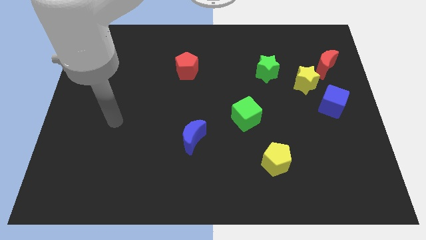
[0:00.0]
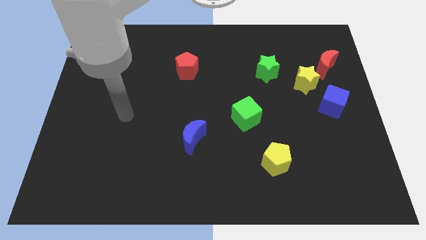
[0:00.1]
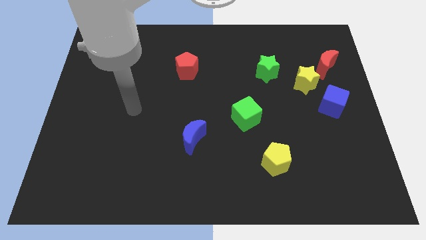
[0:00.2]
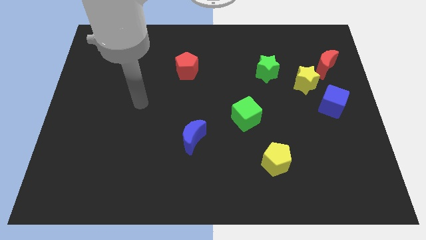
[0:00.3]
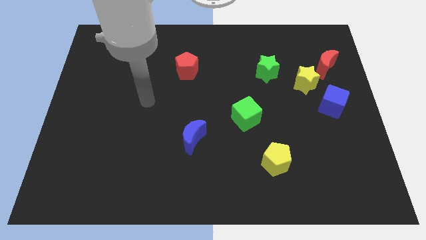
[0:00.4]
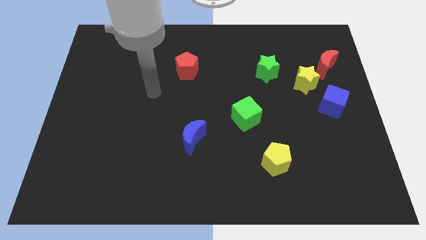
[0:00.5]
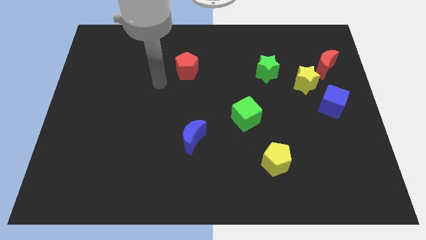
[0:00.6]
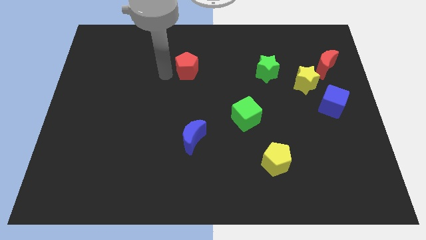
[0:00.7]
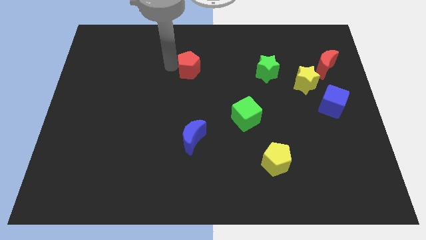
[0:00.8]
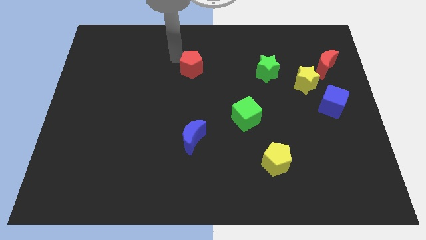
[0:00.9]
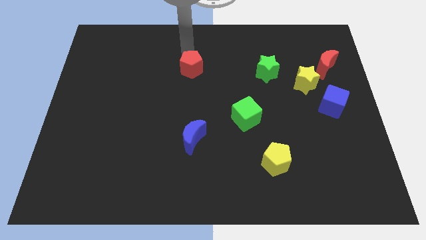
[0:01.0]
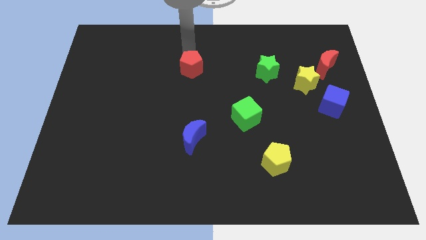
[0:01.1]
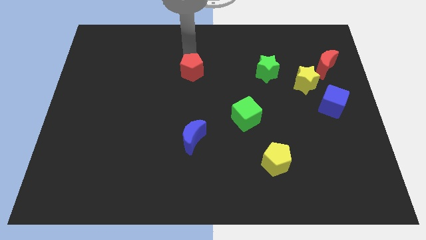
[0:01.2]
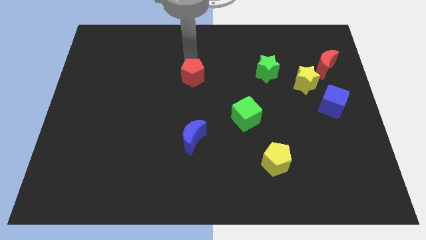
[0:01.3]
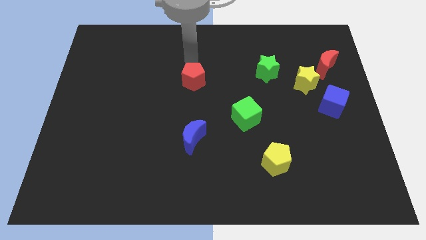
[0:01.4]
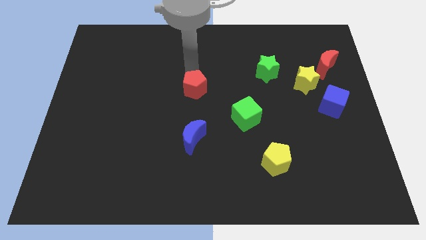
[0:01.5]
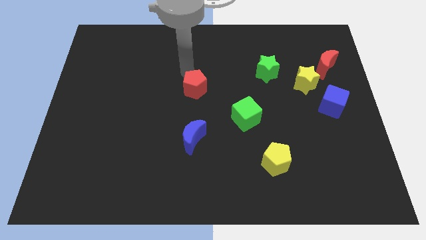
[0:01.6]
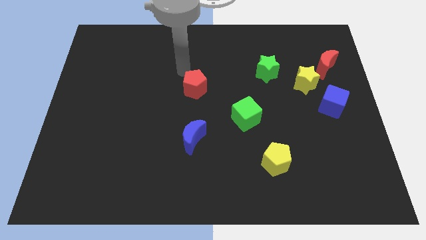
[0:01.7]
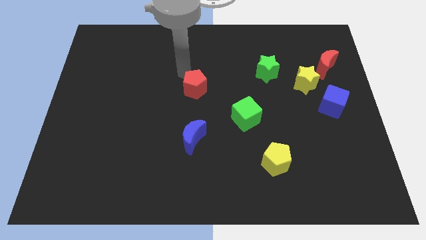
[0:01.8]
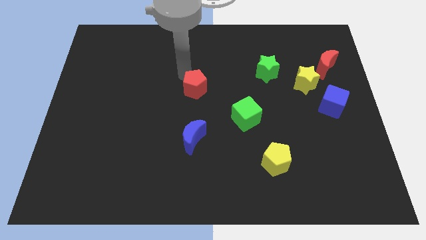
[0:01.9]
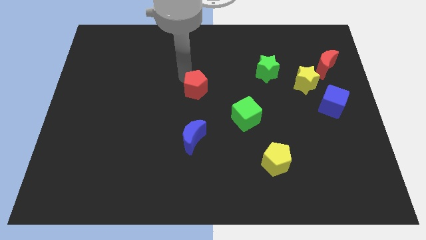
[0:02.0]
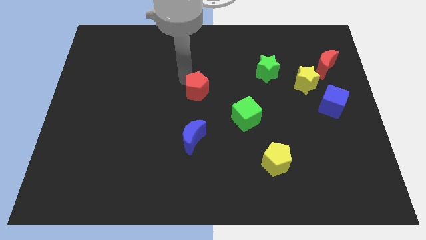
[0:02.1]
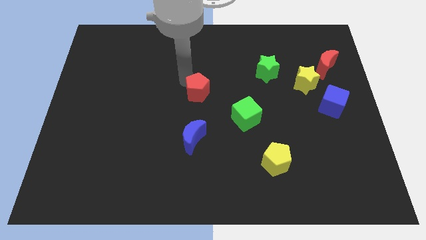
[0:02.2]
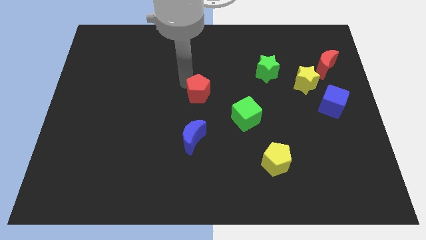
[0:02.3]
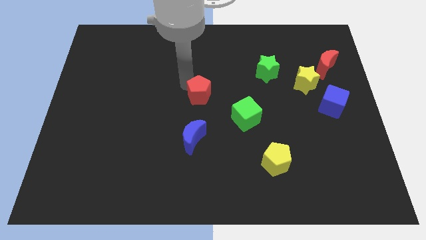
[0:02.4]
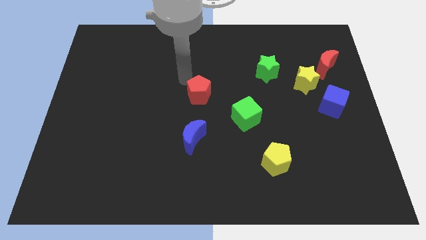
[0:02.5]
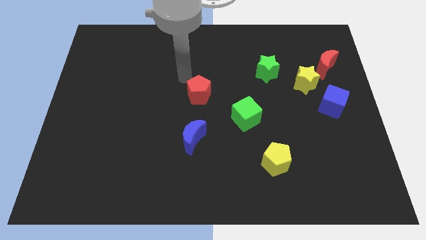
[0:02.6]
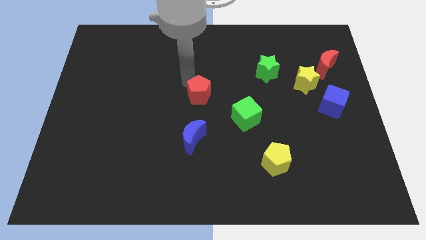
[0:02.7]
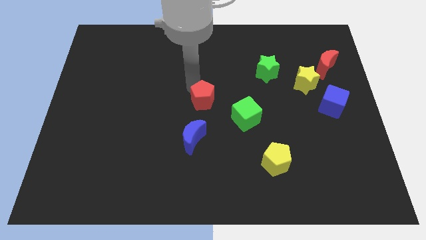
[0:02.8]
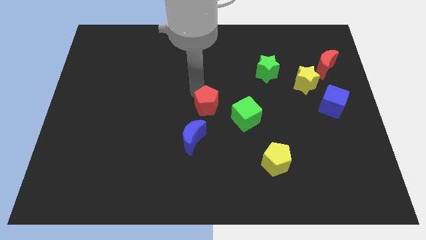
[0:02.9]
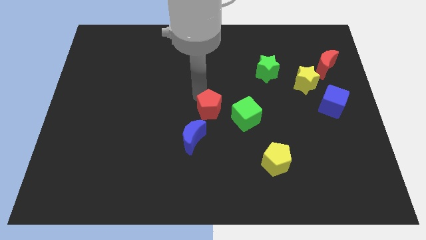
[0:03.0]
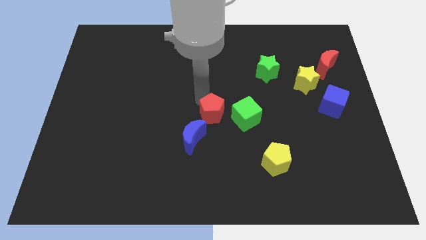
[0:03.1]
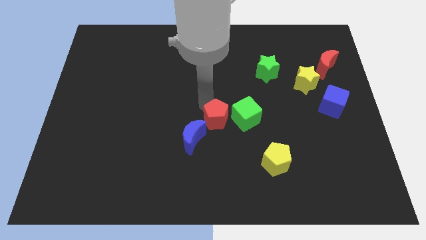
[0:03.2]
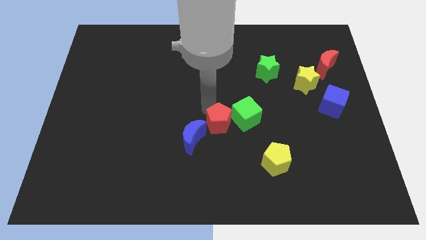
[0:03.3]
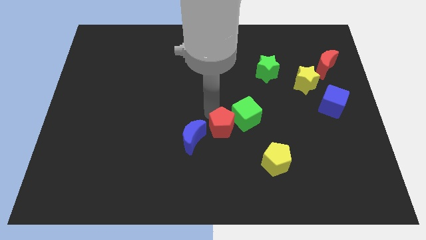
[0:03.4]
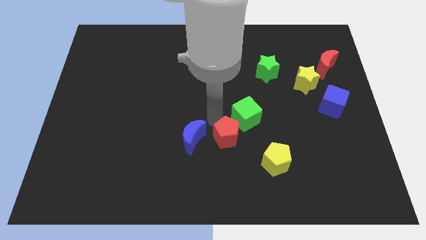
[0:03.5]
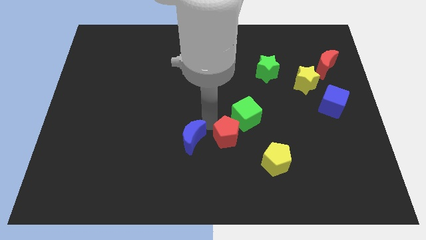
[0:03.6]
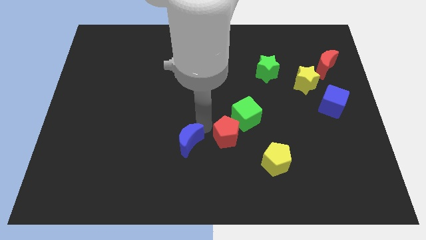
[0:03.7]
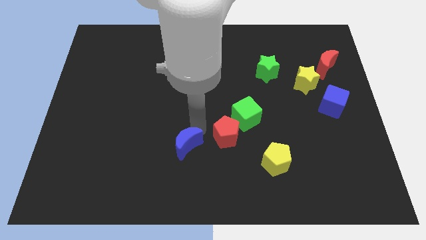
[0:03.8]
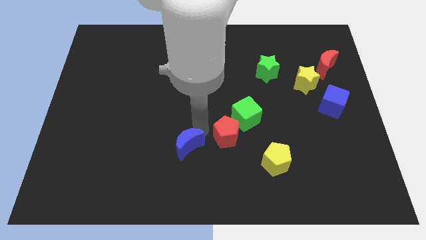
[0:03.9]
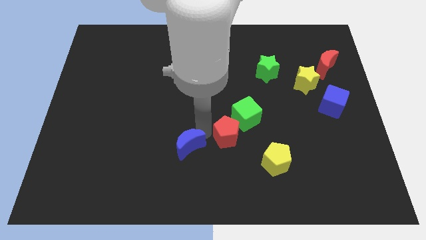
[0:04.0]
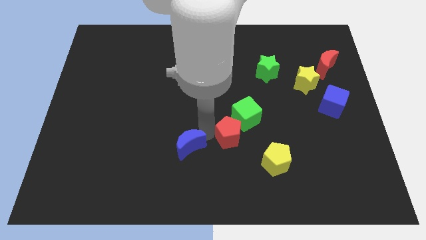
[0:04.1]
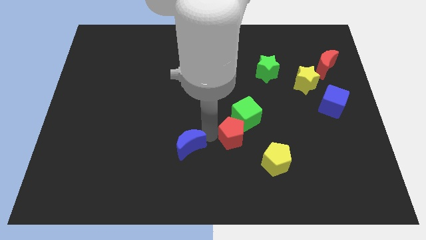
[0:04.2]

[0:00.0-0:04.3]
push the red pentagon downwards and then to the right

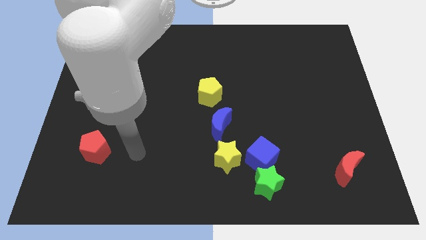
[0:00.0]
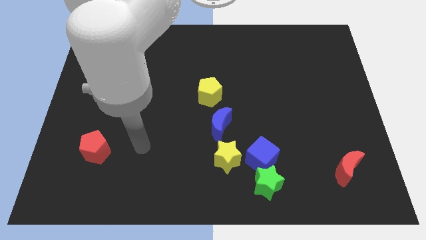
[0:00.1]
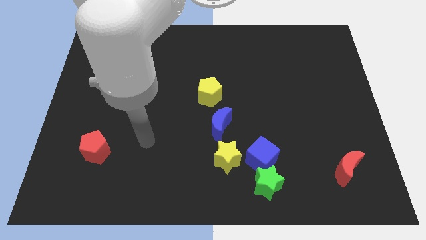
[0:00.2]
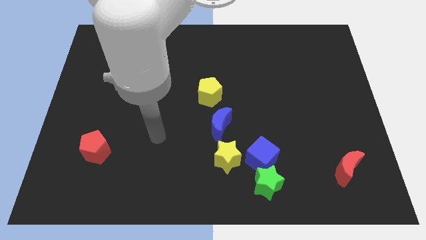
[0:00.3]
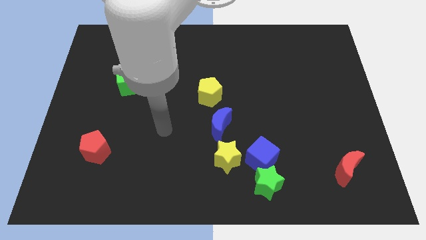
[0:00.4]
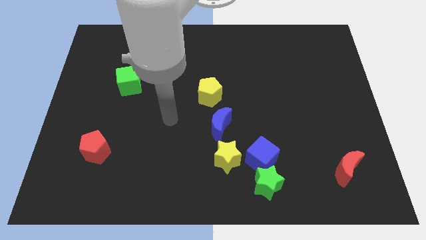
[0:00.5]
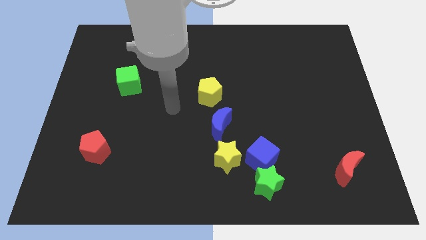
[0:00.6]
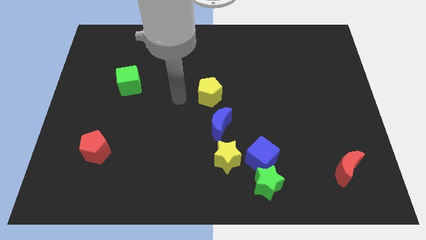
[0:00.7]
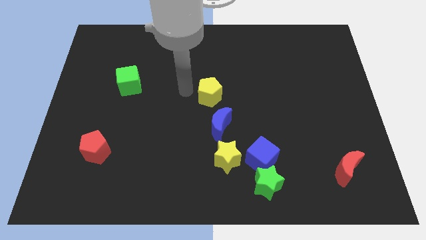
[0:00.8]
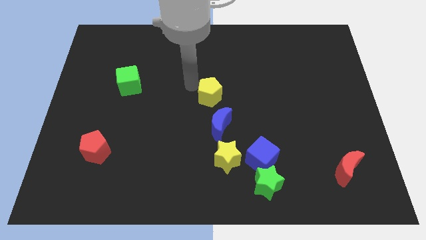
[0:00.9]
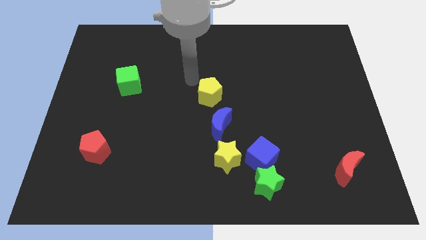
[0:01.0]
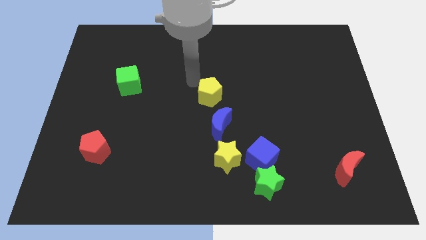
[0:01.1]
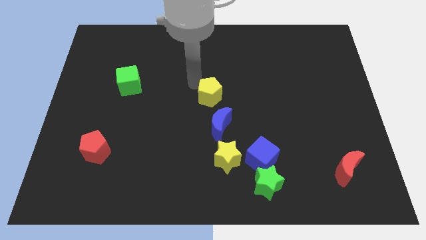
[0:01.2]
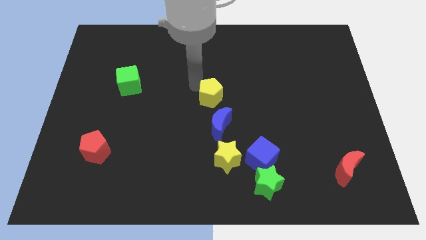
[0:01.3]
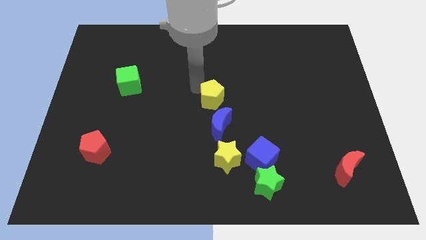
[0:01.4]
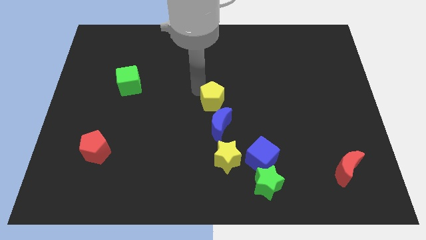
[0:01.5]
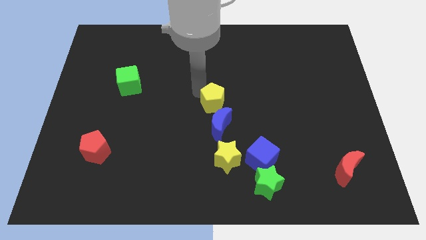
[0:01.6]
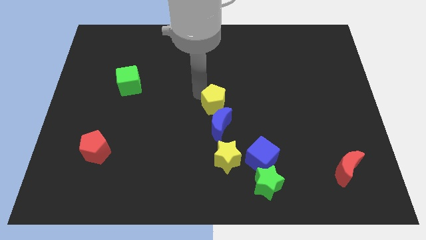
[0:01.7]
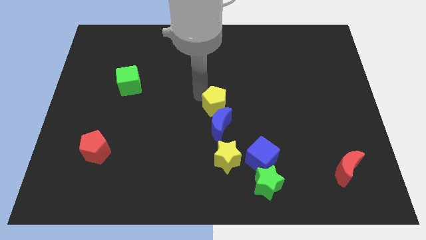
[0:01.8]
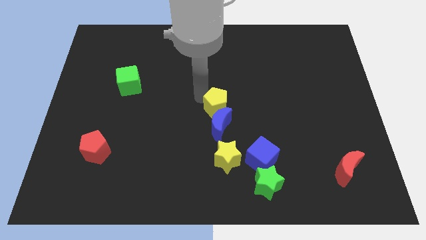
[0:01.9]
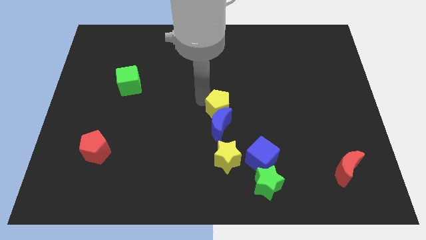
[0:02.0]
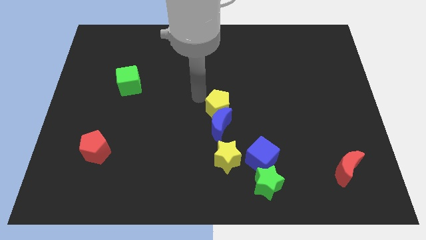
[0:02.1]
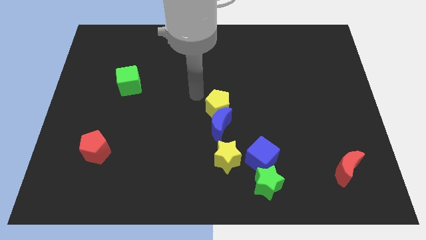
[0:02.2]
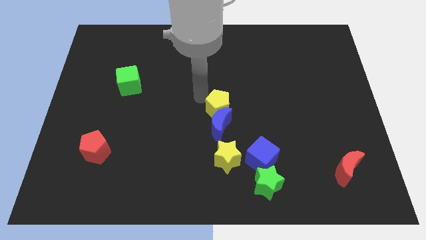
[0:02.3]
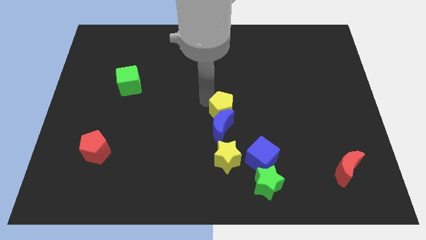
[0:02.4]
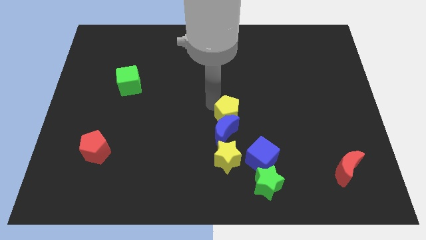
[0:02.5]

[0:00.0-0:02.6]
move the yellow pentagon down and right somewhat

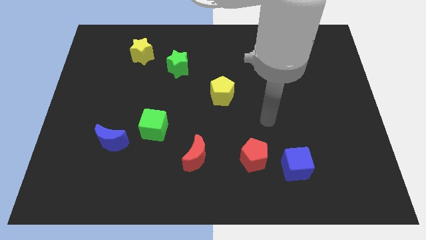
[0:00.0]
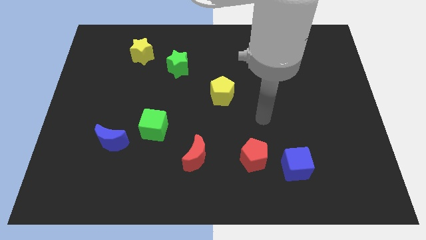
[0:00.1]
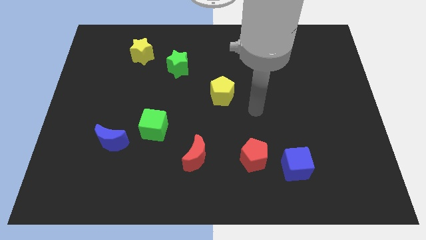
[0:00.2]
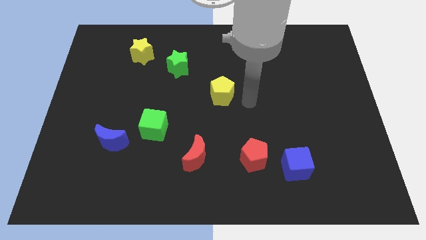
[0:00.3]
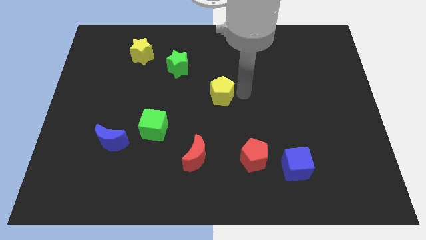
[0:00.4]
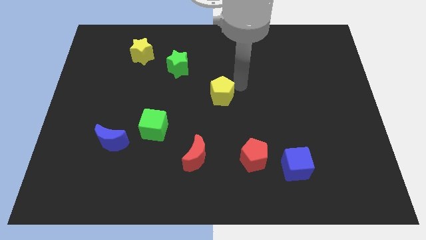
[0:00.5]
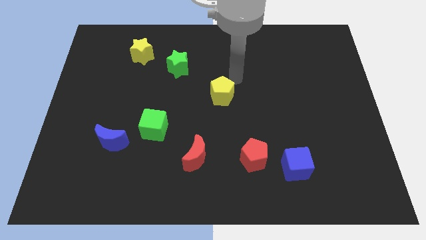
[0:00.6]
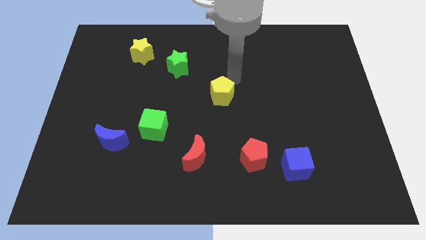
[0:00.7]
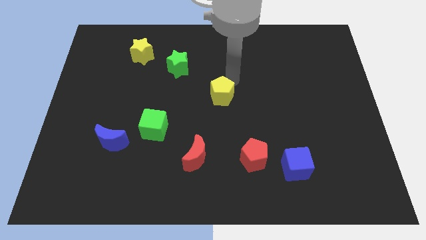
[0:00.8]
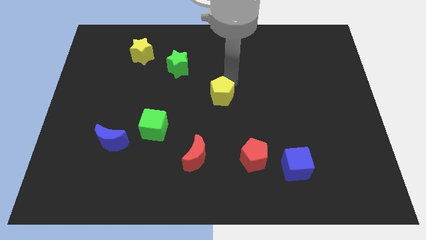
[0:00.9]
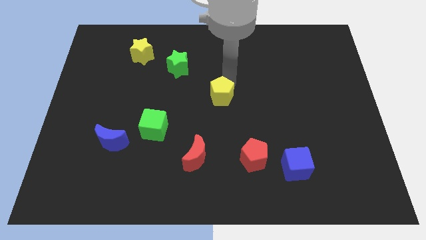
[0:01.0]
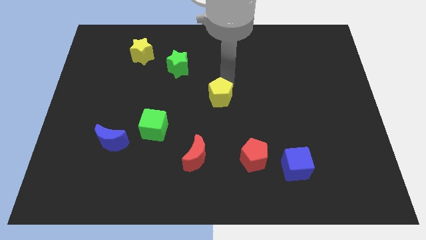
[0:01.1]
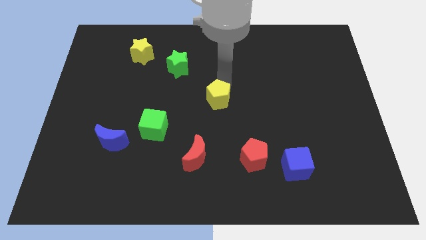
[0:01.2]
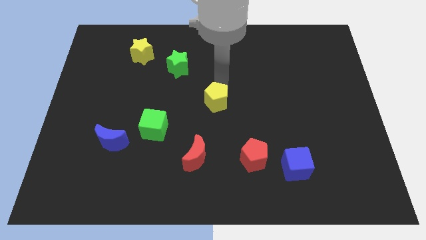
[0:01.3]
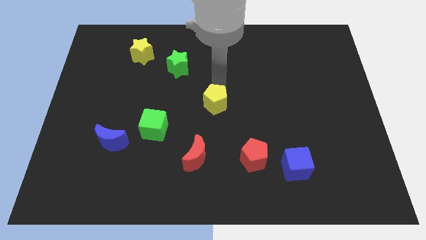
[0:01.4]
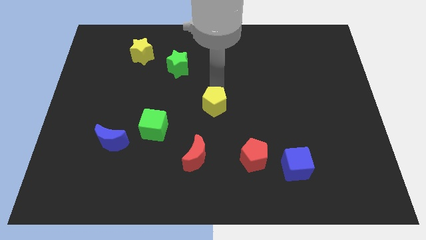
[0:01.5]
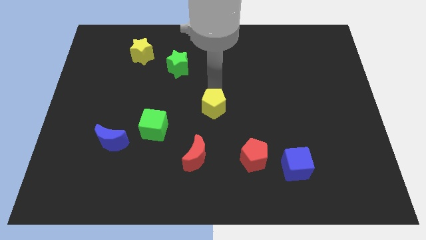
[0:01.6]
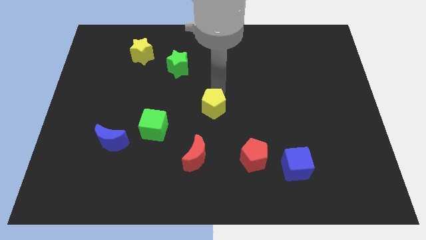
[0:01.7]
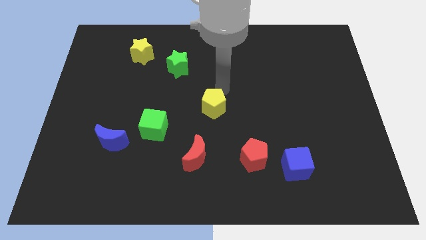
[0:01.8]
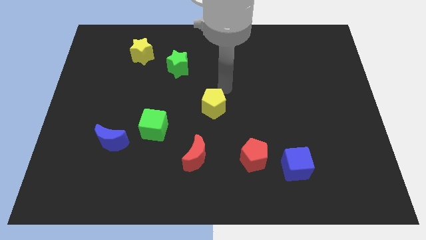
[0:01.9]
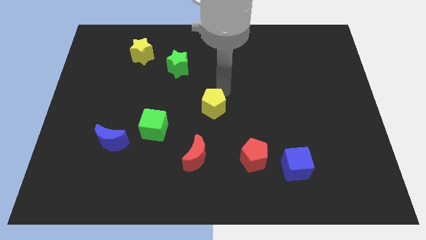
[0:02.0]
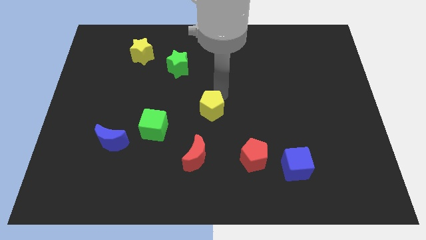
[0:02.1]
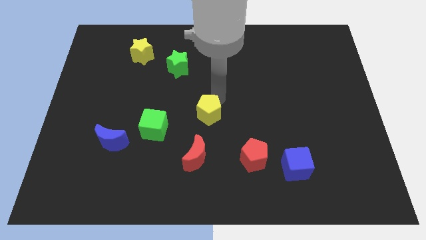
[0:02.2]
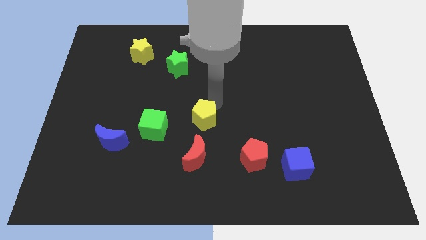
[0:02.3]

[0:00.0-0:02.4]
slightly slide the yellow pentagon diagonally down and left
